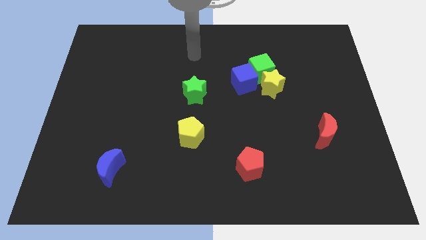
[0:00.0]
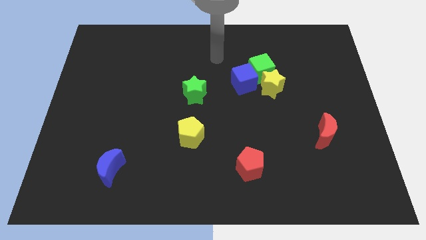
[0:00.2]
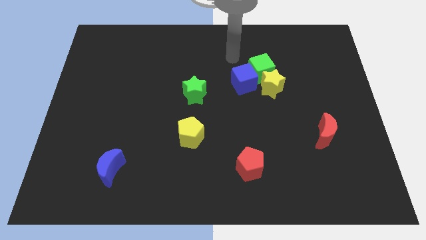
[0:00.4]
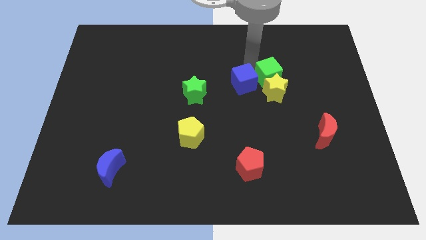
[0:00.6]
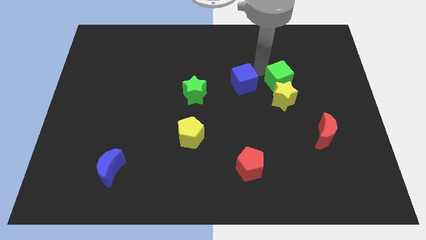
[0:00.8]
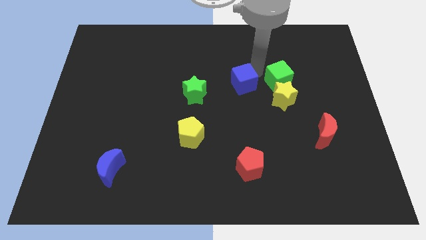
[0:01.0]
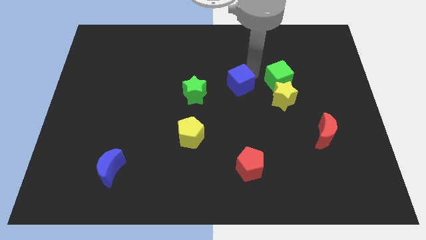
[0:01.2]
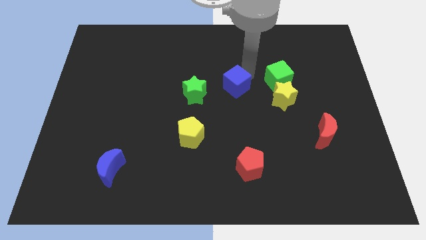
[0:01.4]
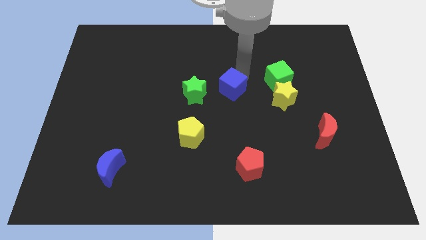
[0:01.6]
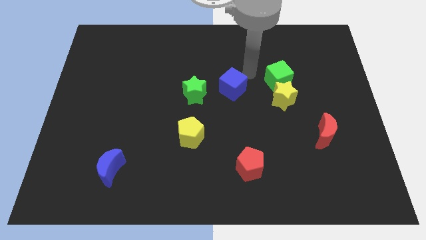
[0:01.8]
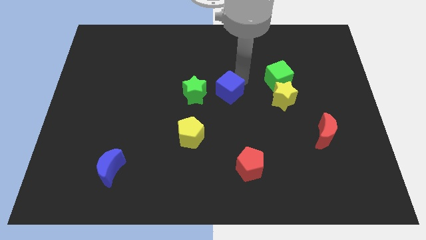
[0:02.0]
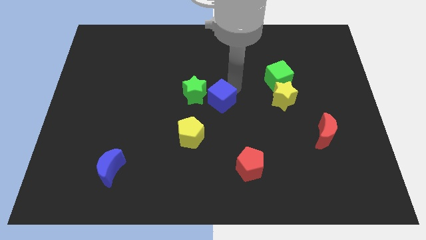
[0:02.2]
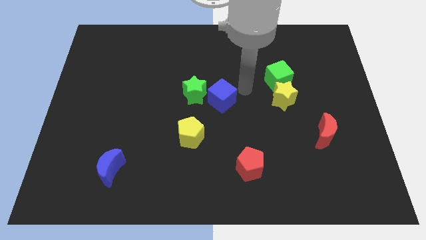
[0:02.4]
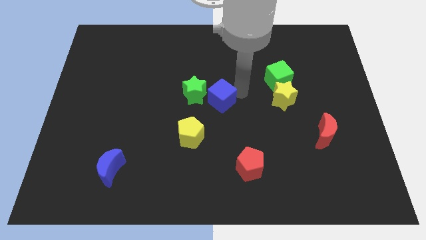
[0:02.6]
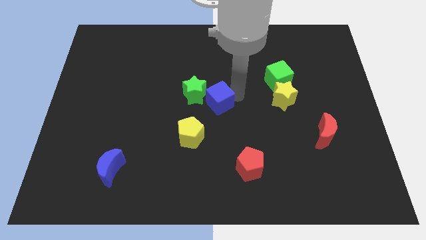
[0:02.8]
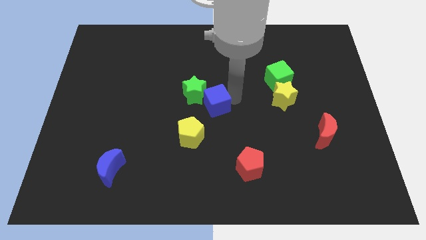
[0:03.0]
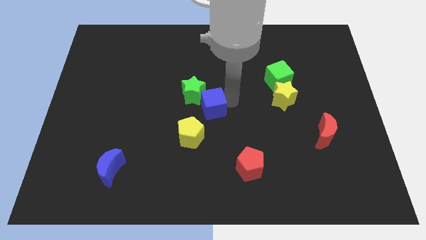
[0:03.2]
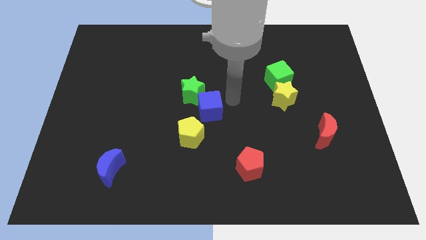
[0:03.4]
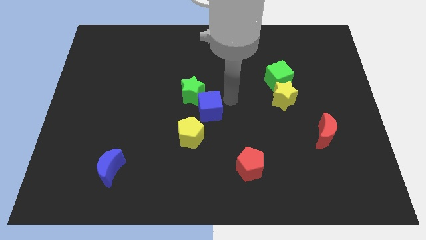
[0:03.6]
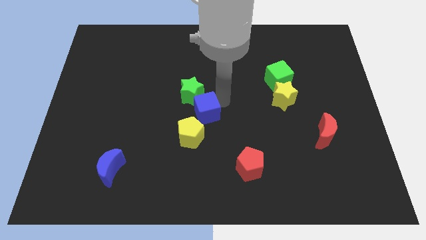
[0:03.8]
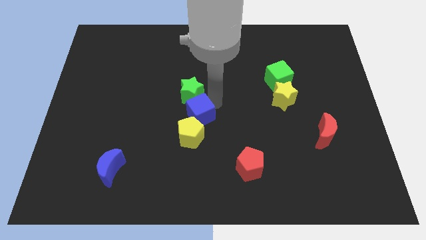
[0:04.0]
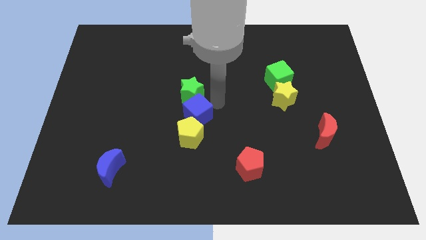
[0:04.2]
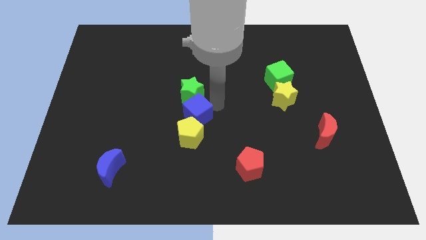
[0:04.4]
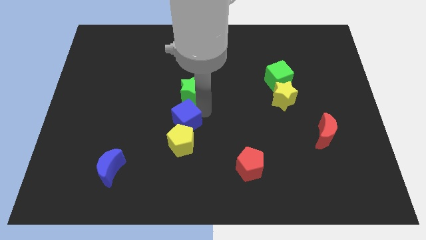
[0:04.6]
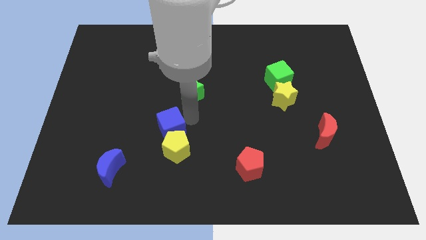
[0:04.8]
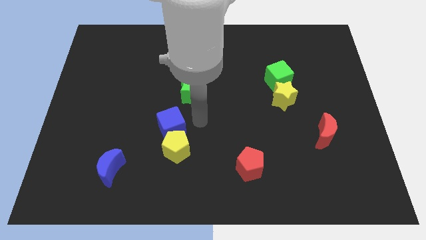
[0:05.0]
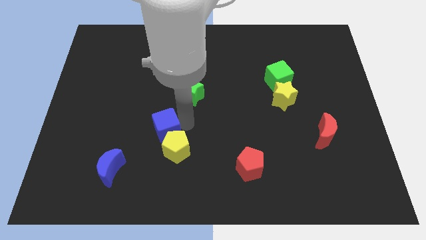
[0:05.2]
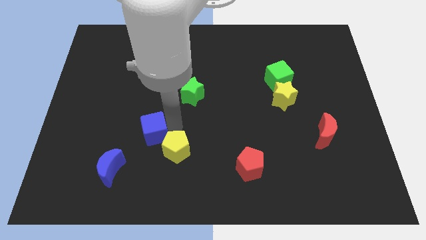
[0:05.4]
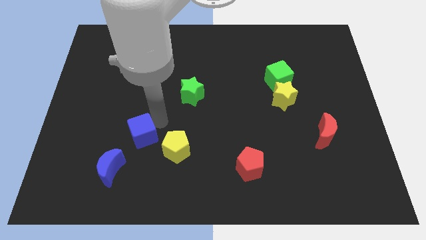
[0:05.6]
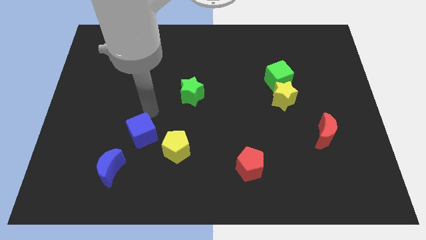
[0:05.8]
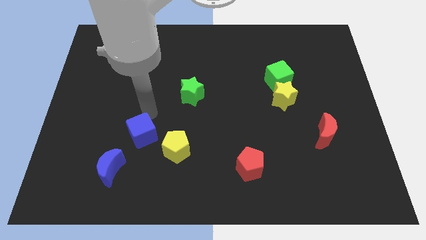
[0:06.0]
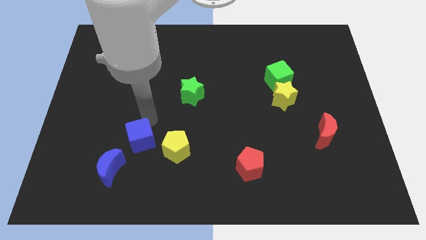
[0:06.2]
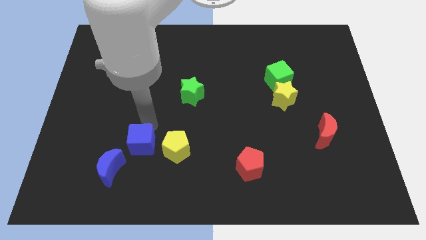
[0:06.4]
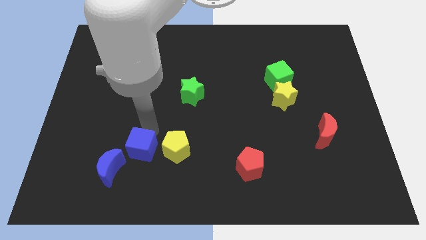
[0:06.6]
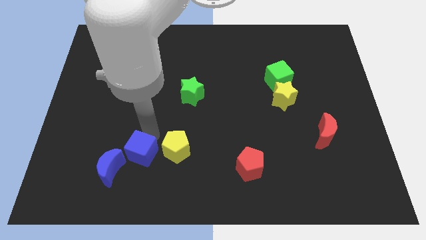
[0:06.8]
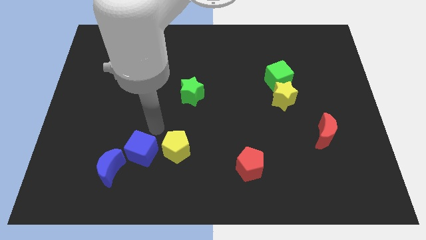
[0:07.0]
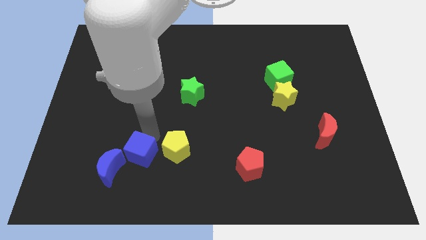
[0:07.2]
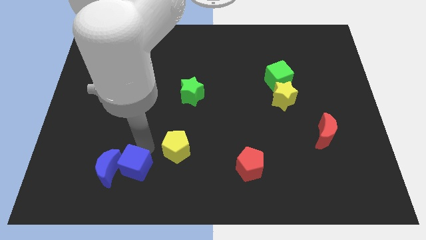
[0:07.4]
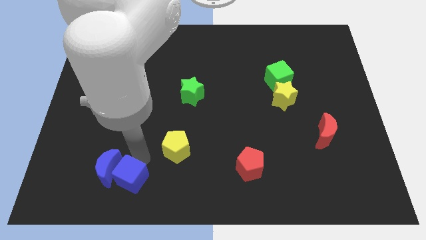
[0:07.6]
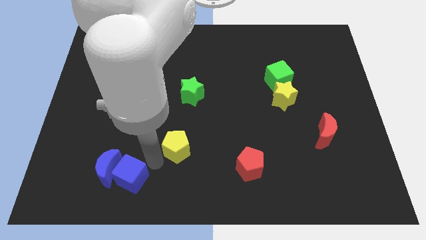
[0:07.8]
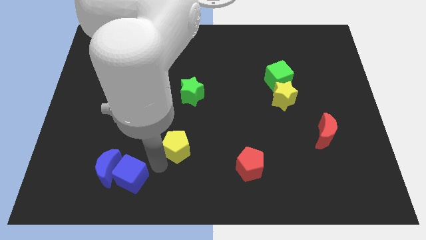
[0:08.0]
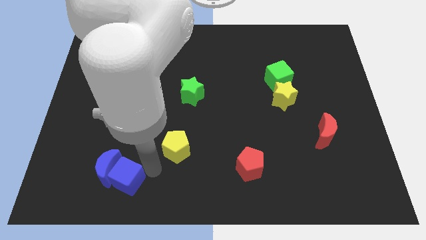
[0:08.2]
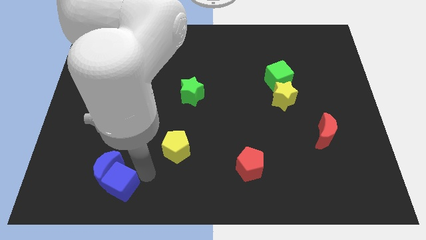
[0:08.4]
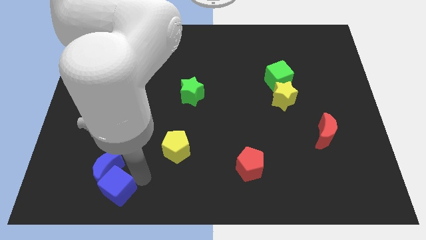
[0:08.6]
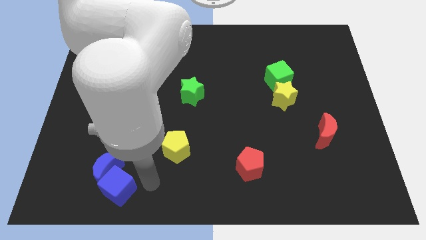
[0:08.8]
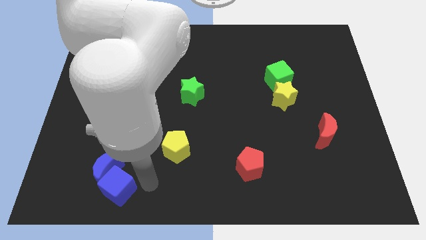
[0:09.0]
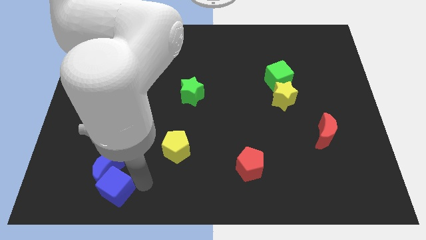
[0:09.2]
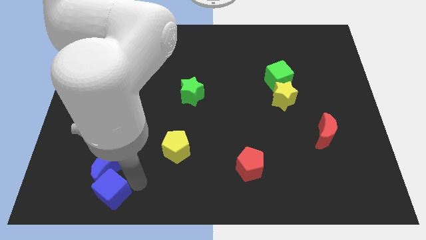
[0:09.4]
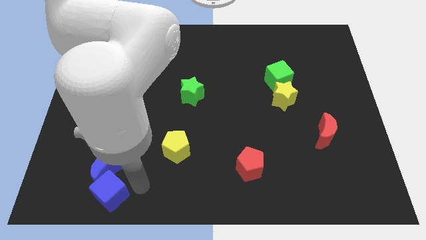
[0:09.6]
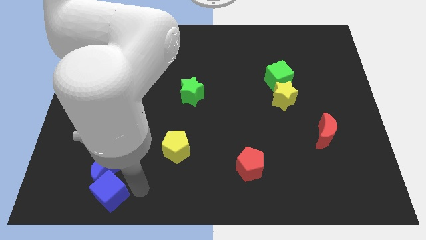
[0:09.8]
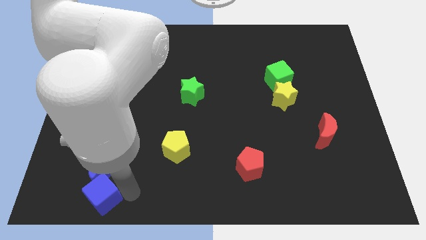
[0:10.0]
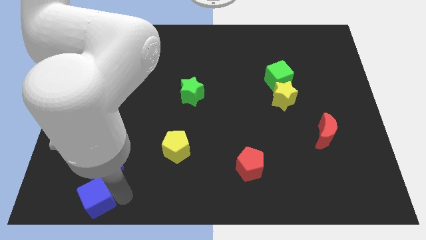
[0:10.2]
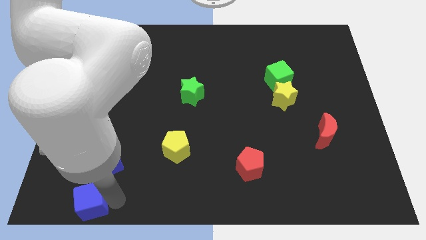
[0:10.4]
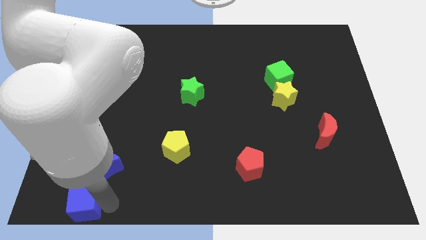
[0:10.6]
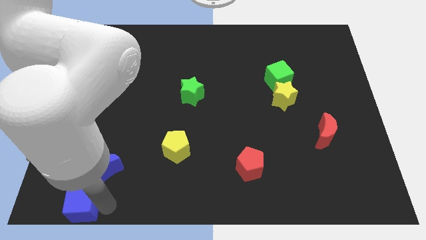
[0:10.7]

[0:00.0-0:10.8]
put the blue cube to the lower left corner

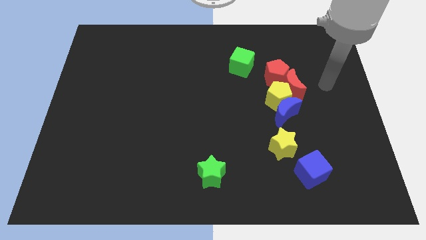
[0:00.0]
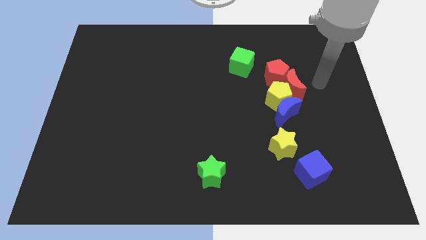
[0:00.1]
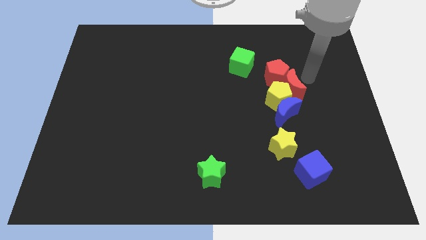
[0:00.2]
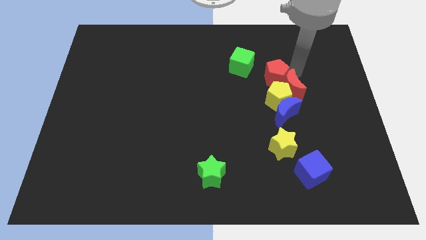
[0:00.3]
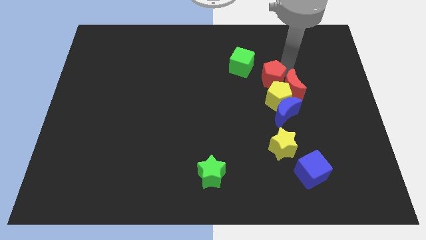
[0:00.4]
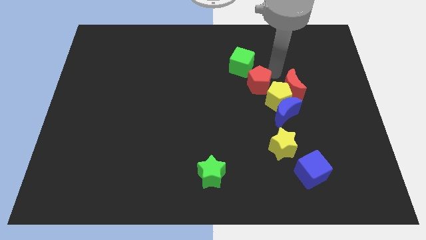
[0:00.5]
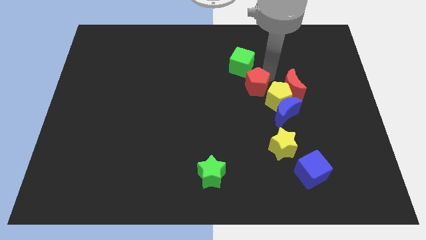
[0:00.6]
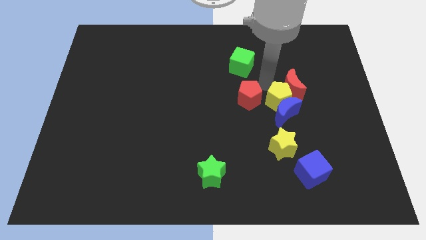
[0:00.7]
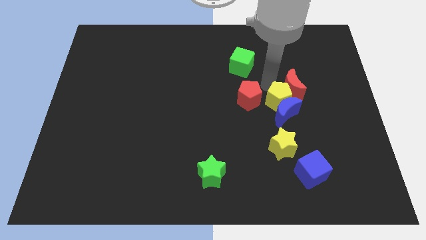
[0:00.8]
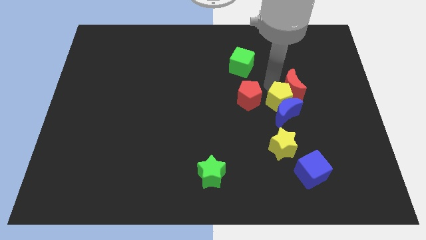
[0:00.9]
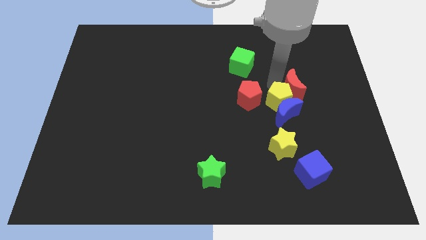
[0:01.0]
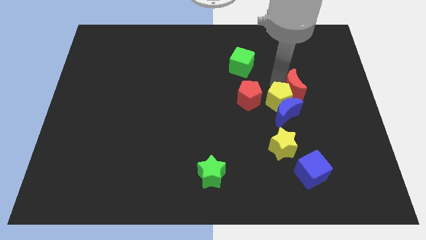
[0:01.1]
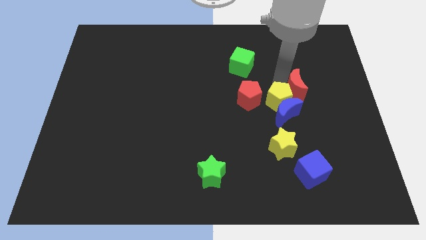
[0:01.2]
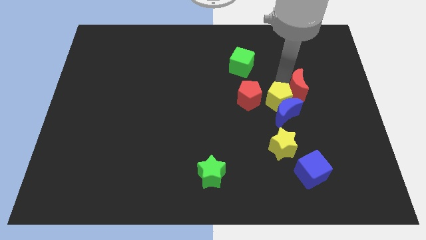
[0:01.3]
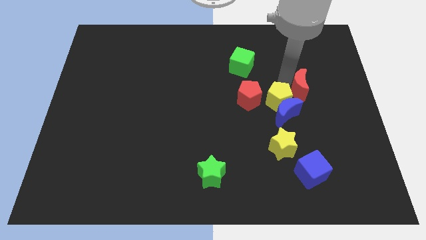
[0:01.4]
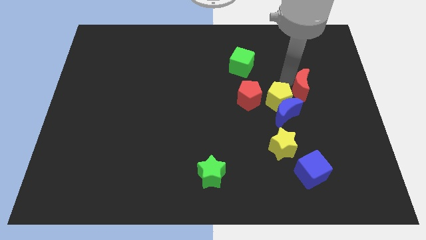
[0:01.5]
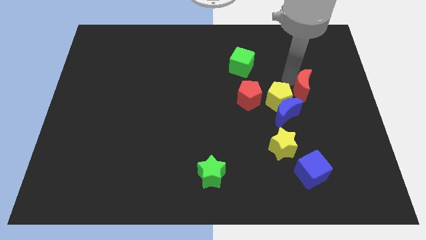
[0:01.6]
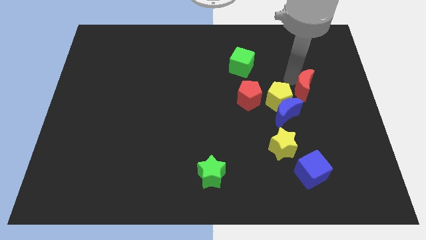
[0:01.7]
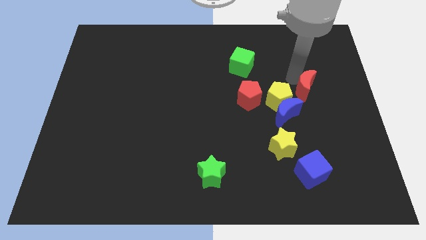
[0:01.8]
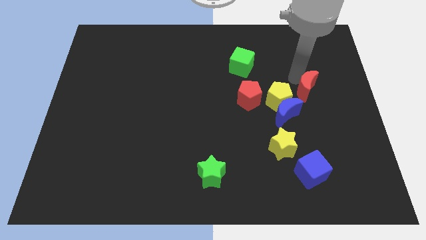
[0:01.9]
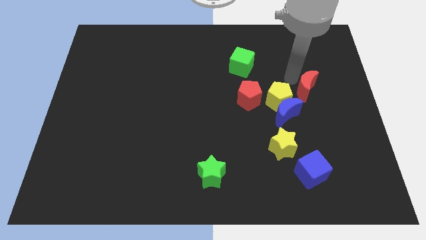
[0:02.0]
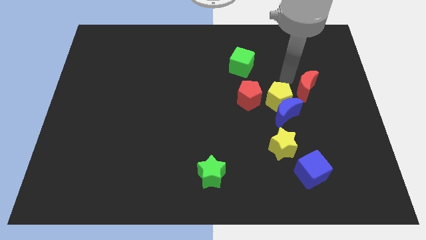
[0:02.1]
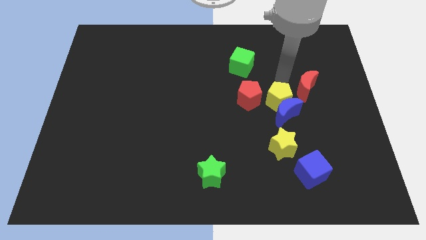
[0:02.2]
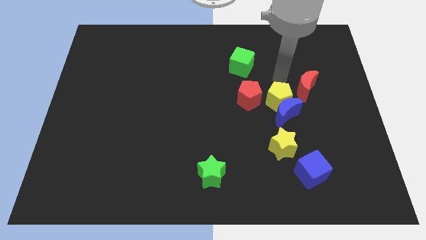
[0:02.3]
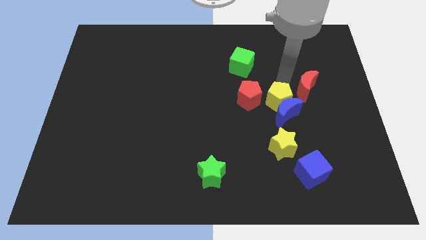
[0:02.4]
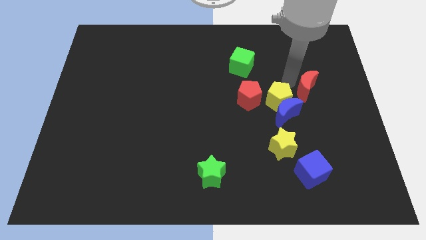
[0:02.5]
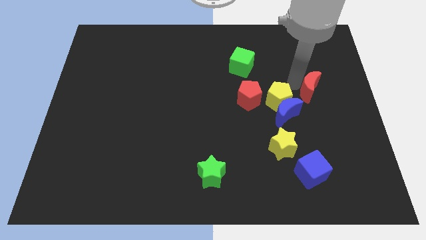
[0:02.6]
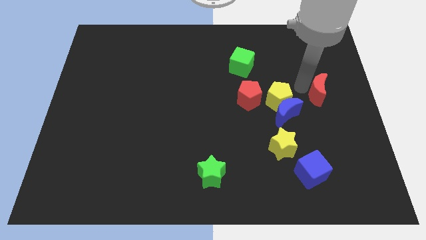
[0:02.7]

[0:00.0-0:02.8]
push the red moon to the right side of the board
